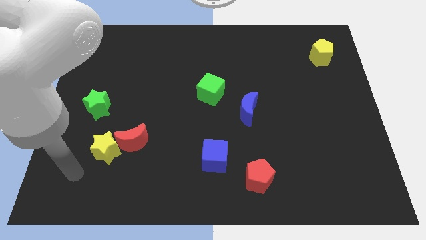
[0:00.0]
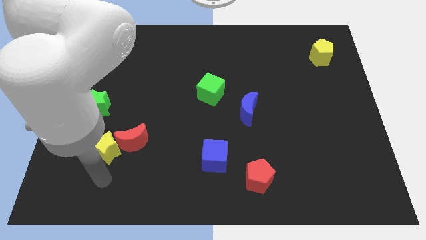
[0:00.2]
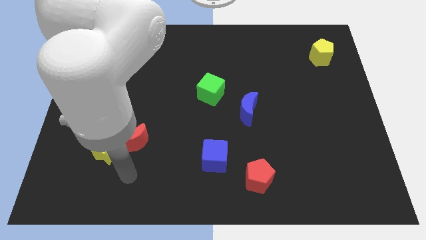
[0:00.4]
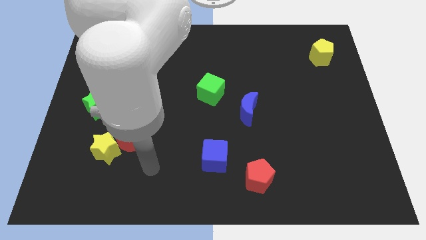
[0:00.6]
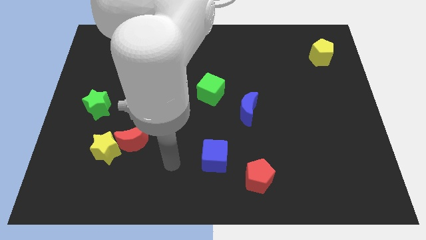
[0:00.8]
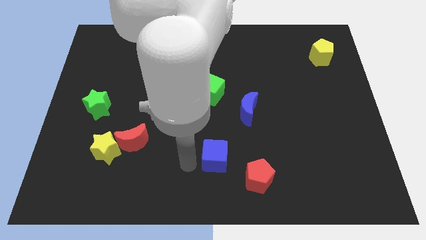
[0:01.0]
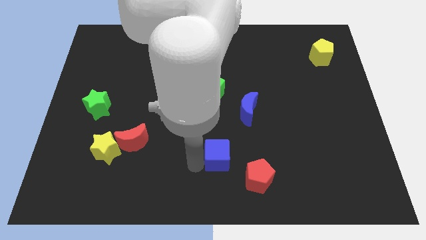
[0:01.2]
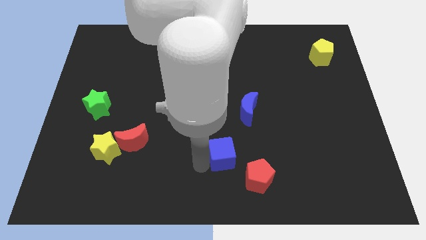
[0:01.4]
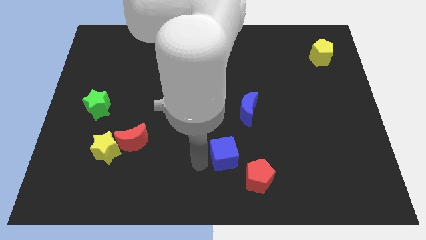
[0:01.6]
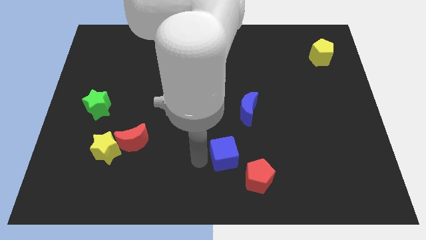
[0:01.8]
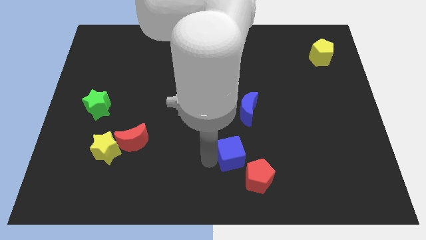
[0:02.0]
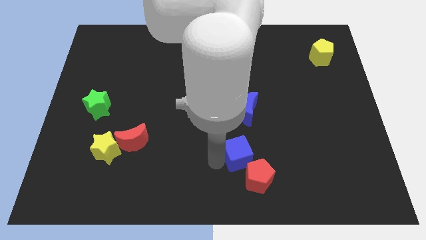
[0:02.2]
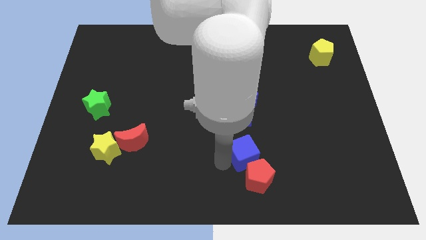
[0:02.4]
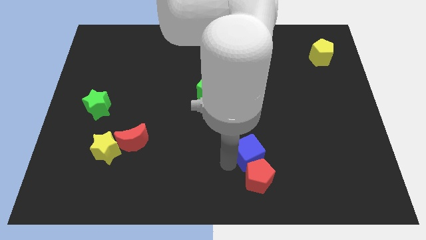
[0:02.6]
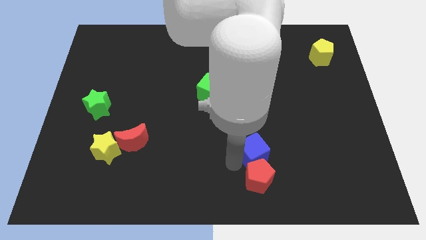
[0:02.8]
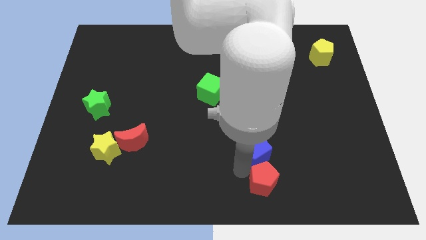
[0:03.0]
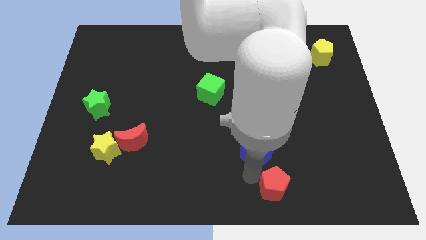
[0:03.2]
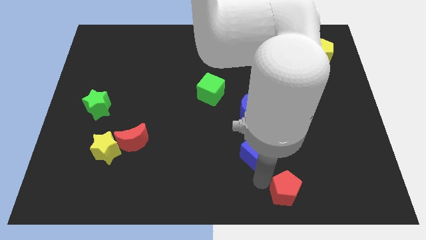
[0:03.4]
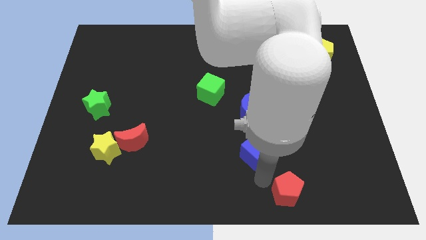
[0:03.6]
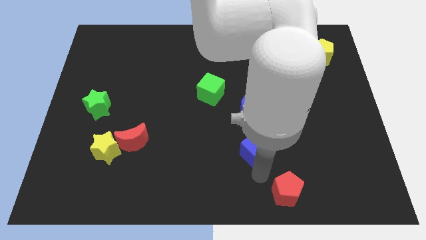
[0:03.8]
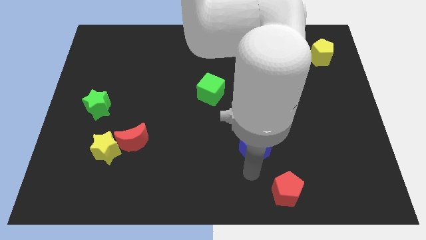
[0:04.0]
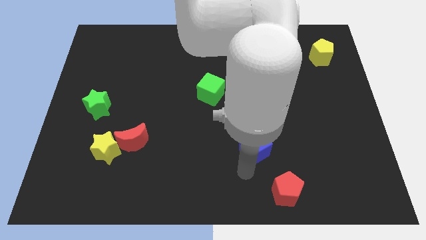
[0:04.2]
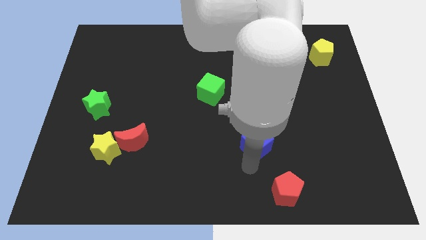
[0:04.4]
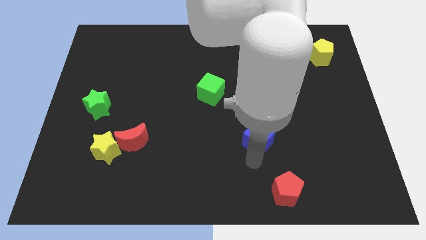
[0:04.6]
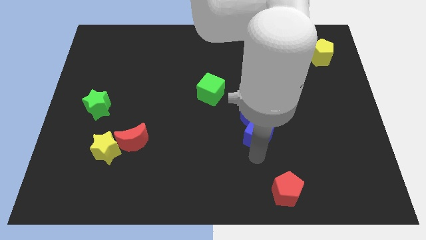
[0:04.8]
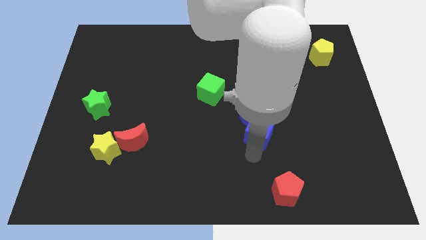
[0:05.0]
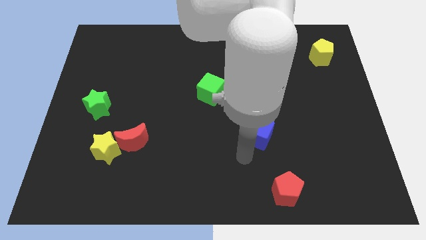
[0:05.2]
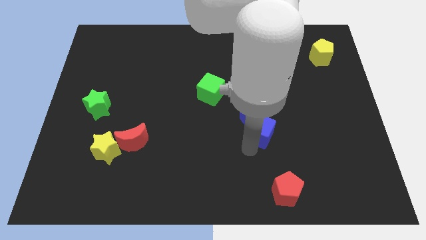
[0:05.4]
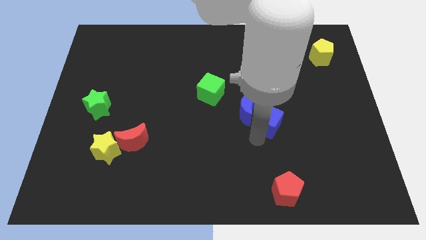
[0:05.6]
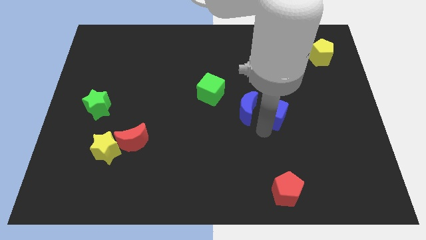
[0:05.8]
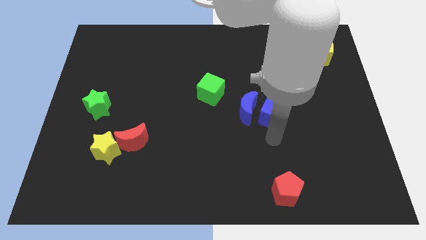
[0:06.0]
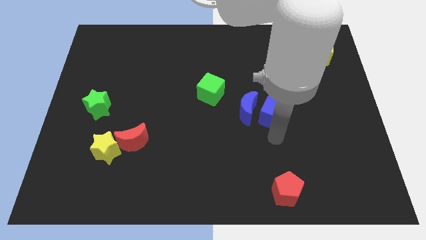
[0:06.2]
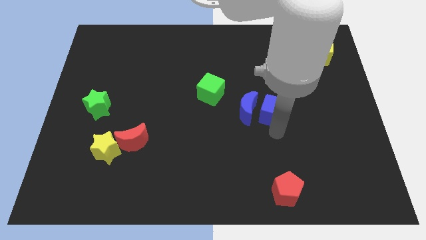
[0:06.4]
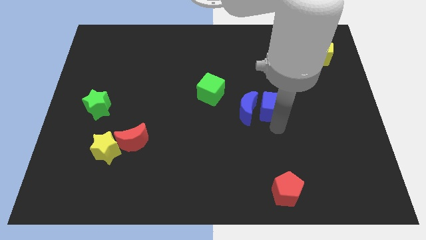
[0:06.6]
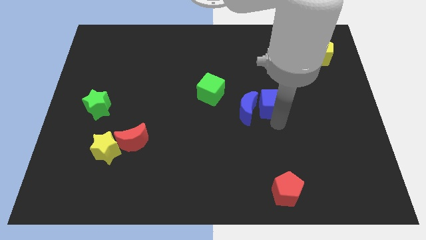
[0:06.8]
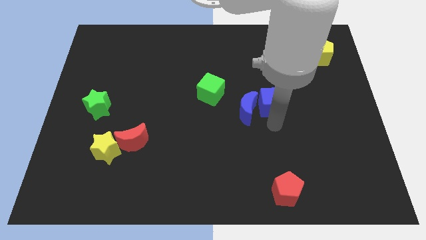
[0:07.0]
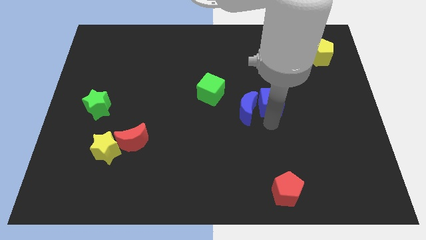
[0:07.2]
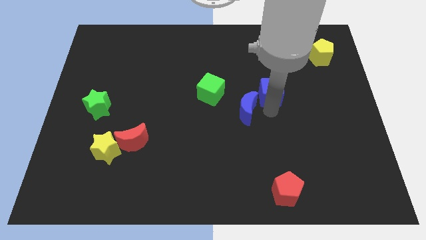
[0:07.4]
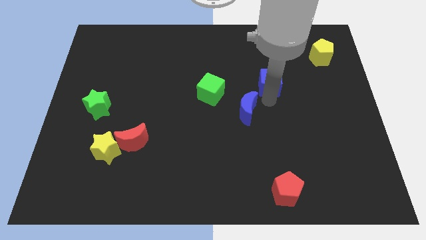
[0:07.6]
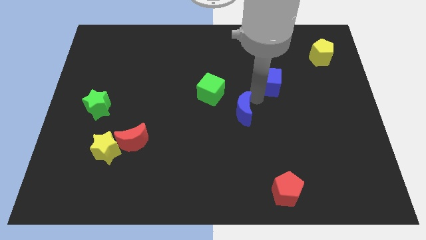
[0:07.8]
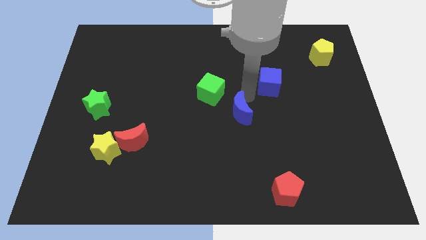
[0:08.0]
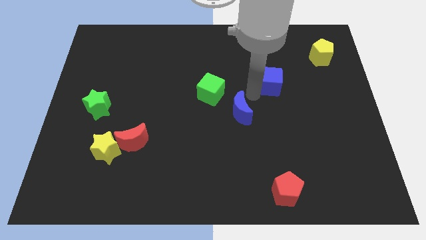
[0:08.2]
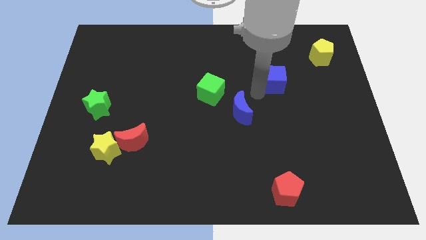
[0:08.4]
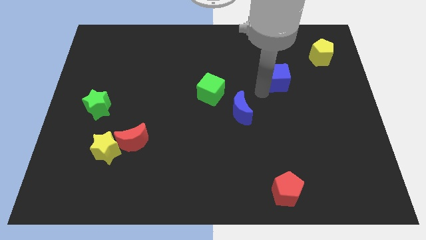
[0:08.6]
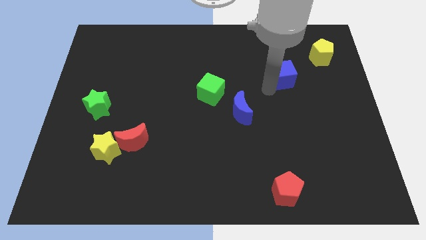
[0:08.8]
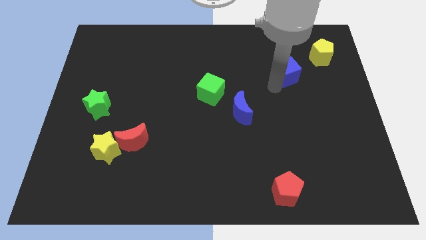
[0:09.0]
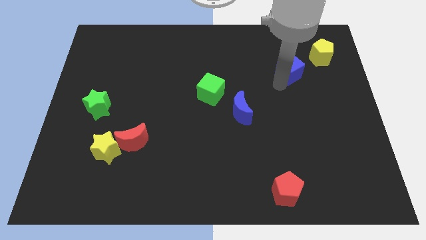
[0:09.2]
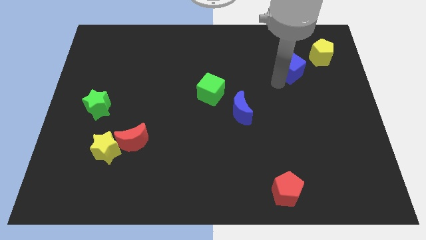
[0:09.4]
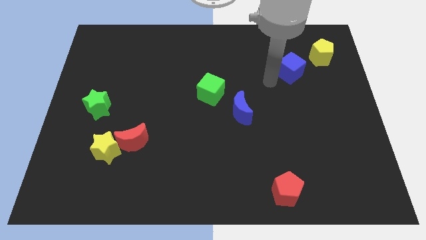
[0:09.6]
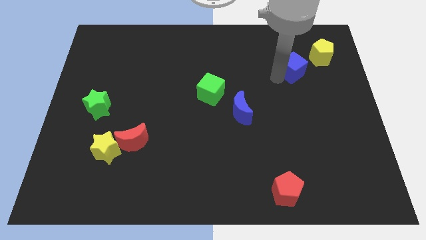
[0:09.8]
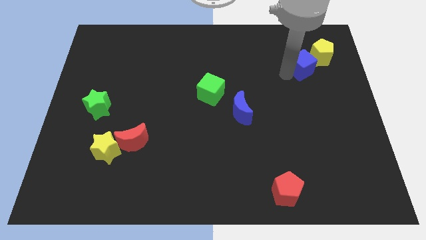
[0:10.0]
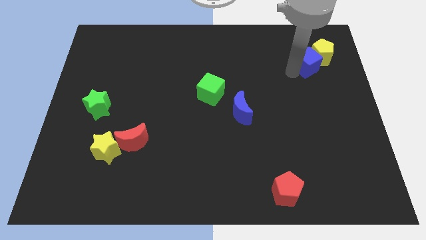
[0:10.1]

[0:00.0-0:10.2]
move the blue cube close to the yellow pentagon

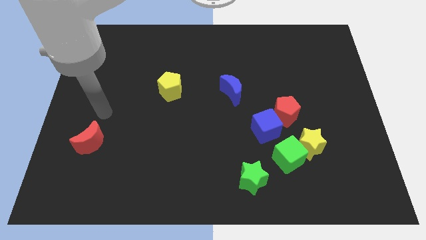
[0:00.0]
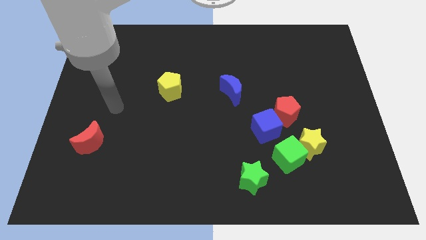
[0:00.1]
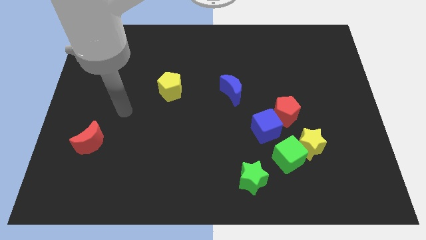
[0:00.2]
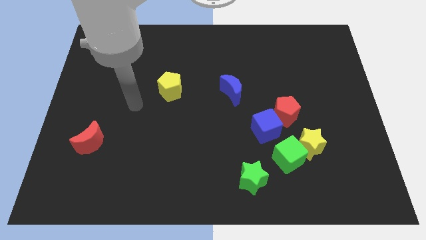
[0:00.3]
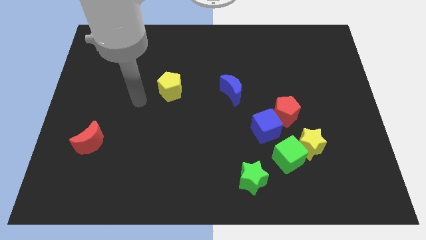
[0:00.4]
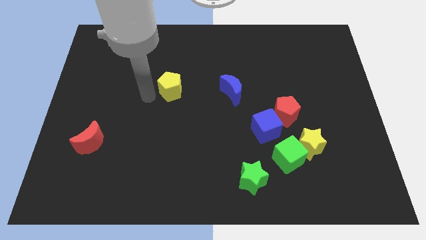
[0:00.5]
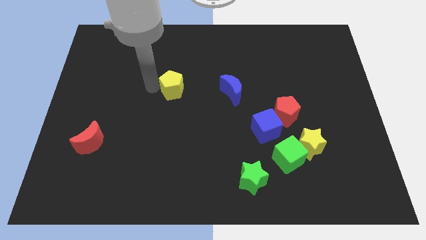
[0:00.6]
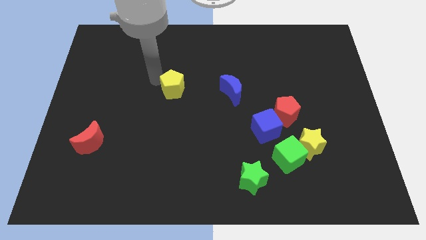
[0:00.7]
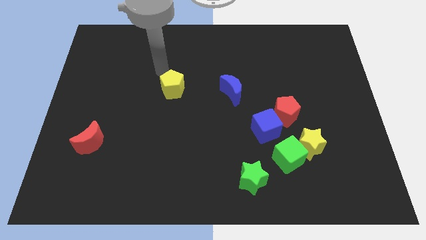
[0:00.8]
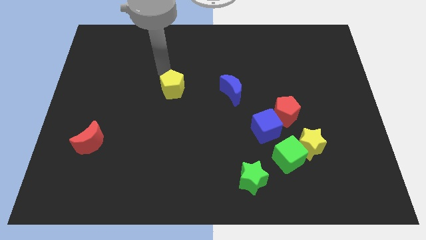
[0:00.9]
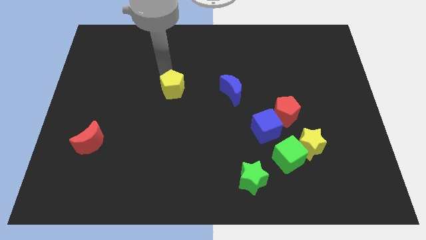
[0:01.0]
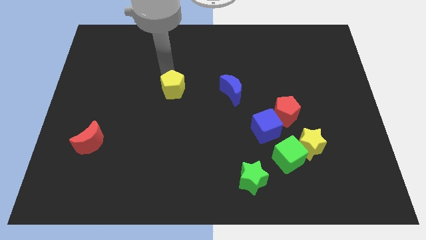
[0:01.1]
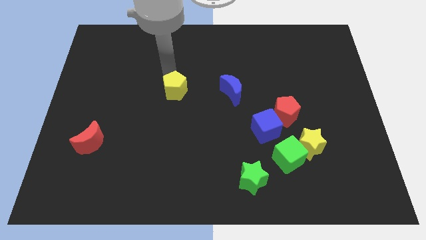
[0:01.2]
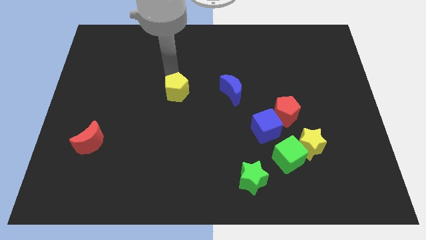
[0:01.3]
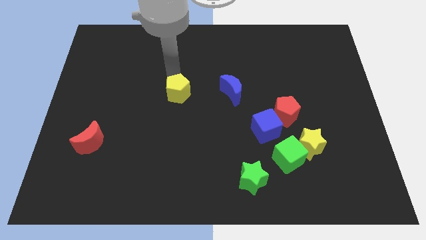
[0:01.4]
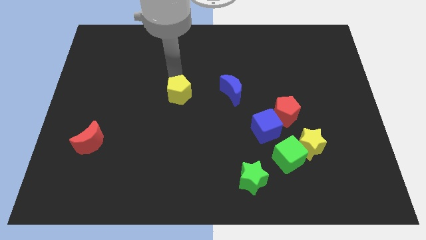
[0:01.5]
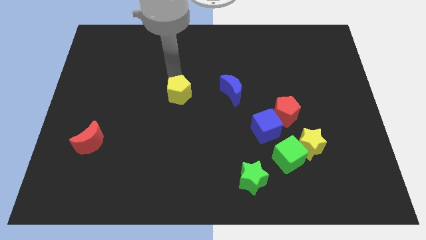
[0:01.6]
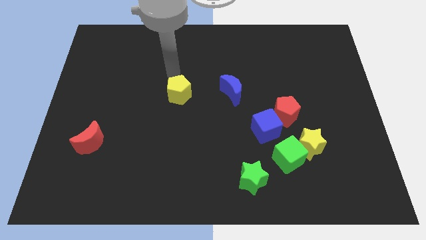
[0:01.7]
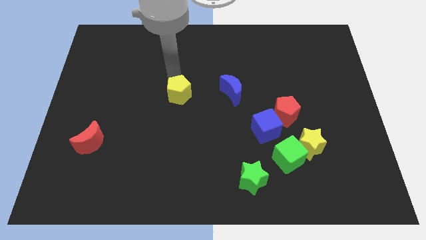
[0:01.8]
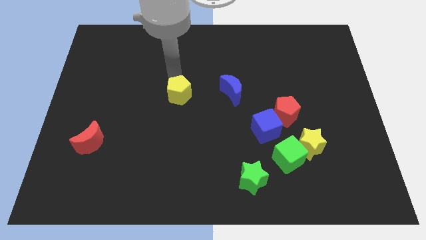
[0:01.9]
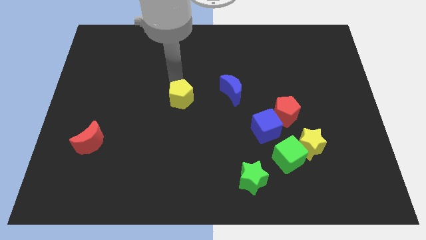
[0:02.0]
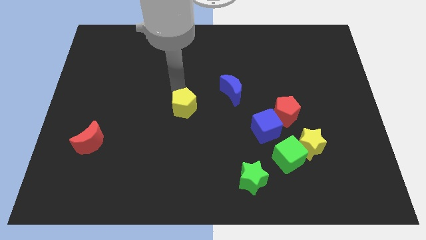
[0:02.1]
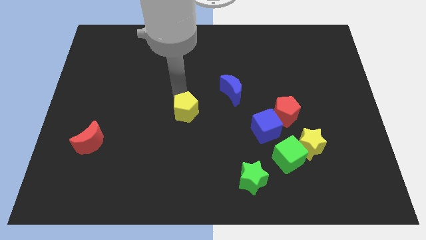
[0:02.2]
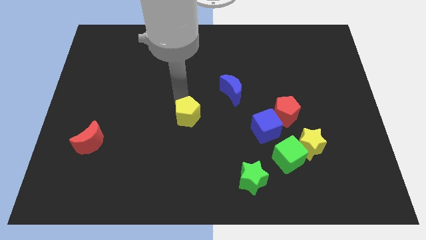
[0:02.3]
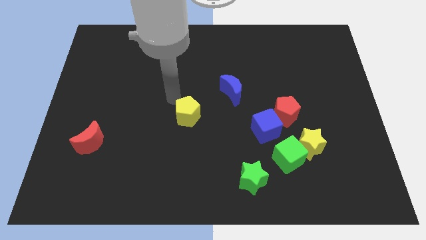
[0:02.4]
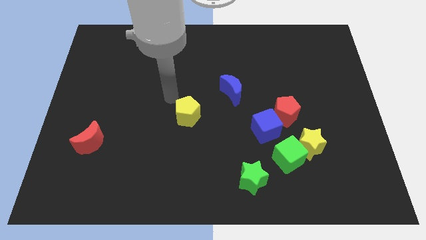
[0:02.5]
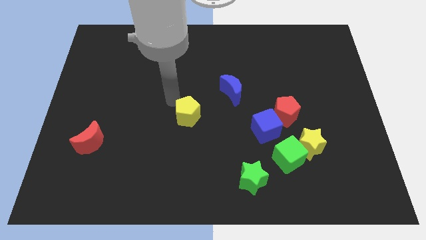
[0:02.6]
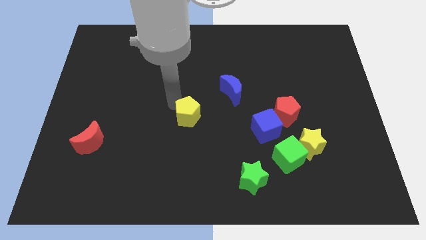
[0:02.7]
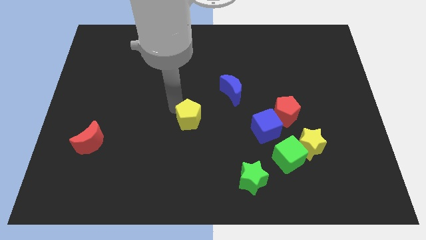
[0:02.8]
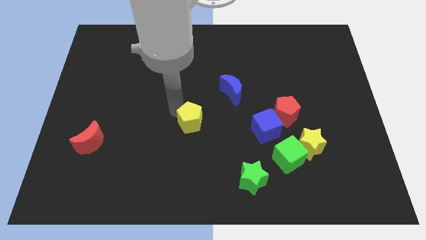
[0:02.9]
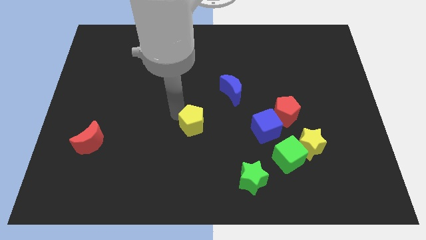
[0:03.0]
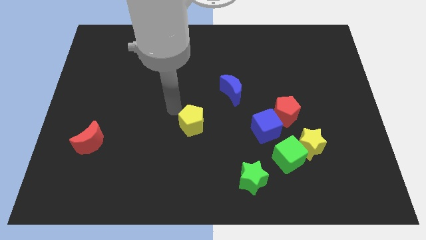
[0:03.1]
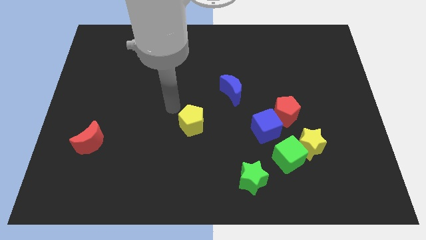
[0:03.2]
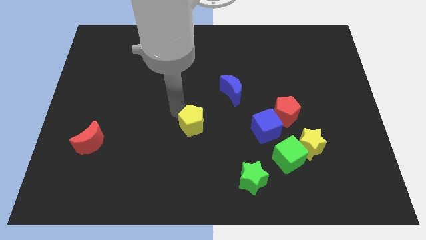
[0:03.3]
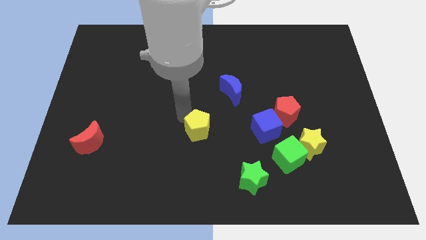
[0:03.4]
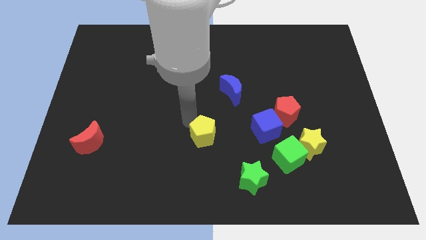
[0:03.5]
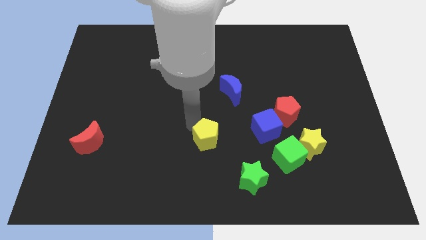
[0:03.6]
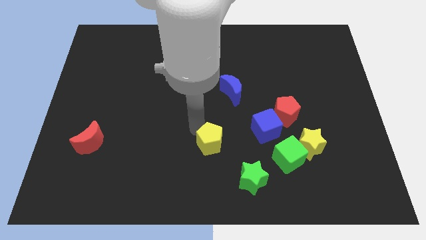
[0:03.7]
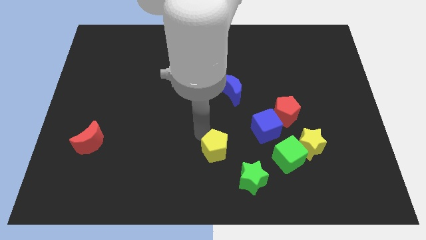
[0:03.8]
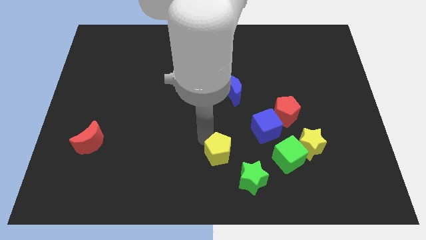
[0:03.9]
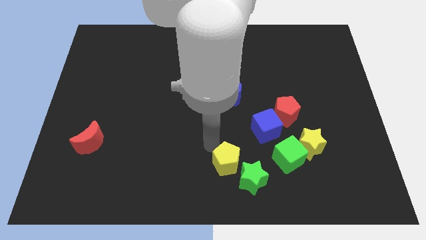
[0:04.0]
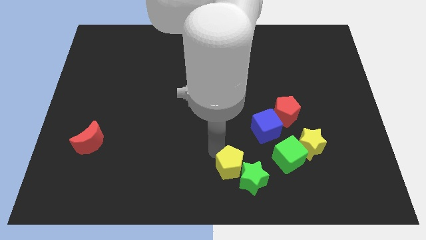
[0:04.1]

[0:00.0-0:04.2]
slide the yellow pentagon next to the green star
